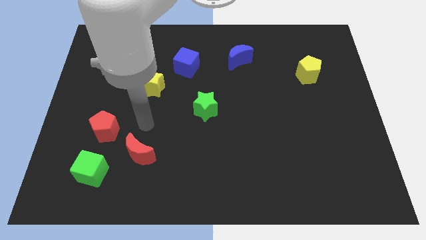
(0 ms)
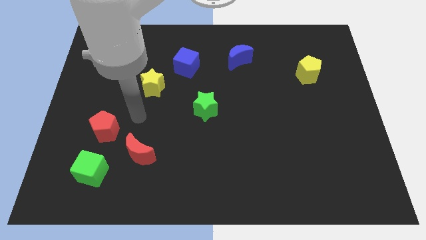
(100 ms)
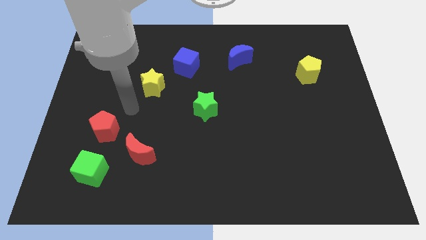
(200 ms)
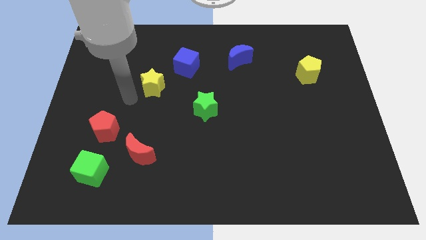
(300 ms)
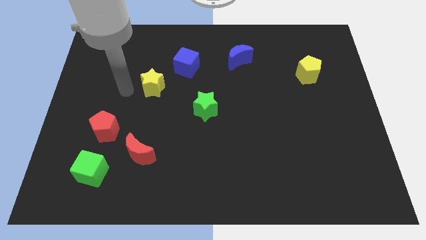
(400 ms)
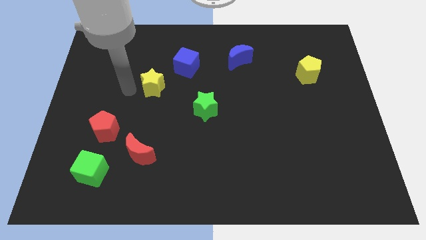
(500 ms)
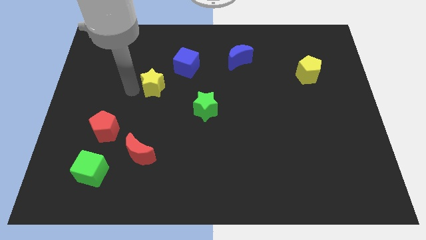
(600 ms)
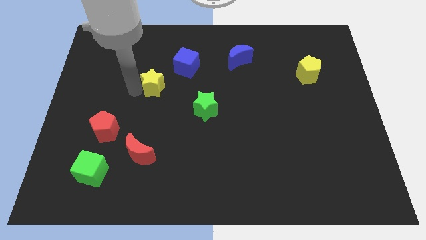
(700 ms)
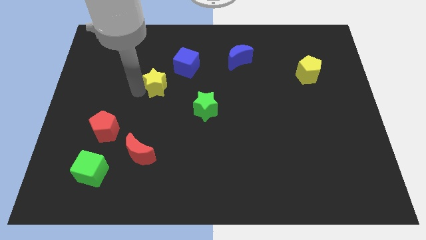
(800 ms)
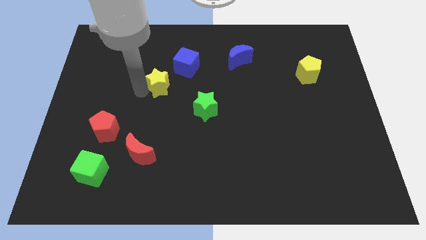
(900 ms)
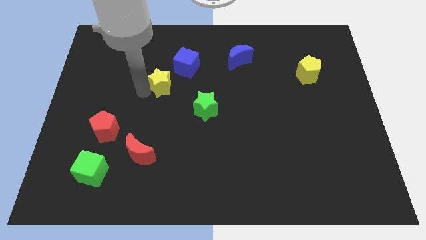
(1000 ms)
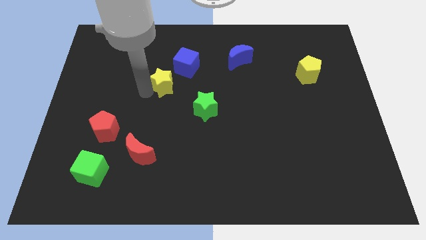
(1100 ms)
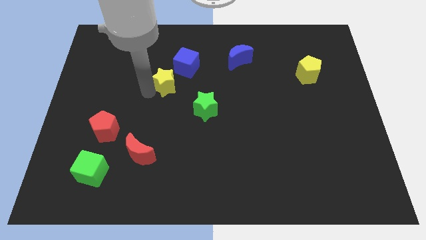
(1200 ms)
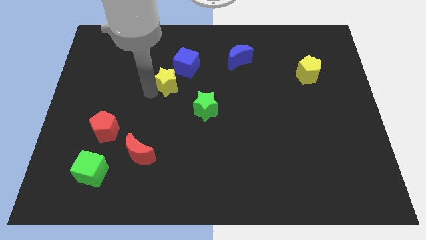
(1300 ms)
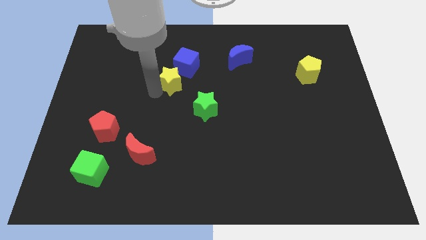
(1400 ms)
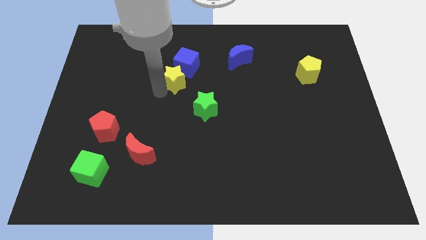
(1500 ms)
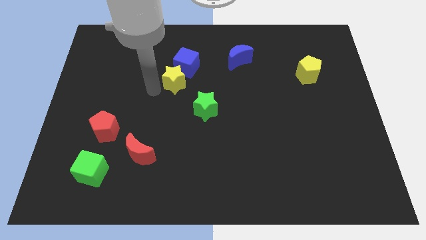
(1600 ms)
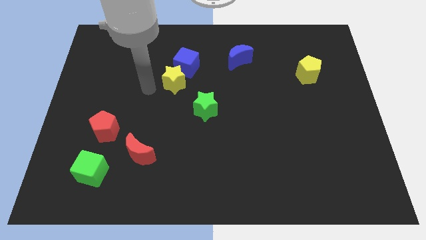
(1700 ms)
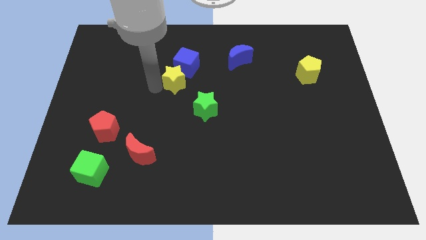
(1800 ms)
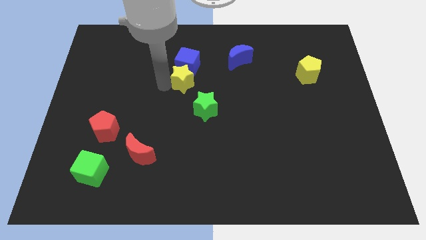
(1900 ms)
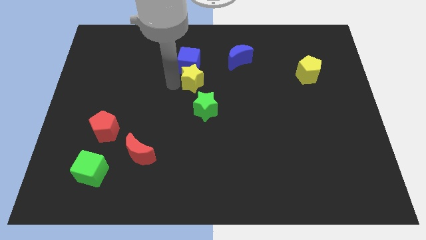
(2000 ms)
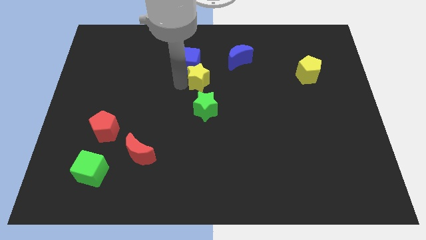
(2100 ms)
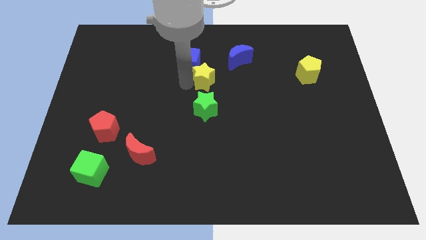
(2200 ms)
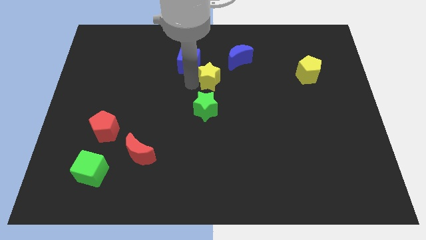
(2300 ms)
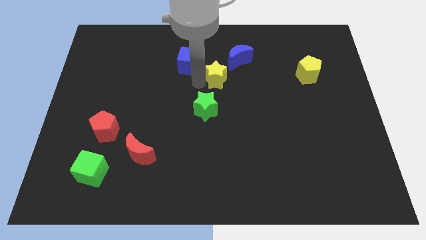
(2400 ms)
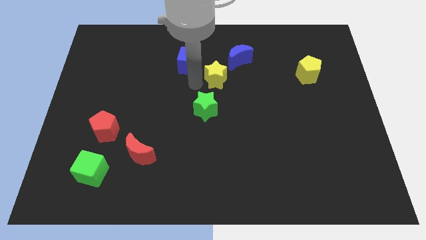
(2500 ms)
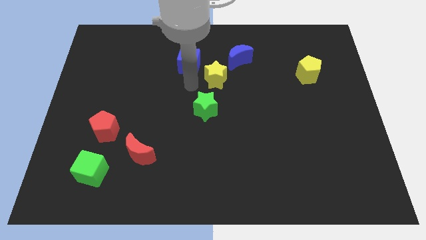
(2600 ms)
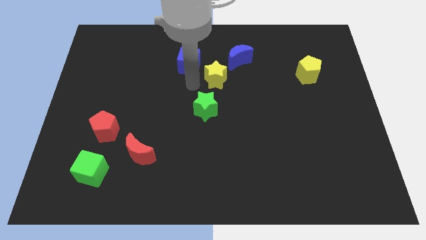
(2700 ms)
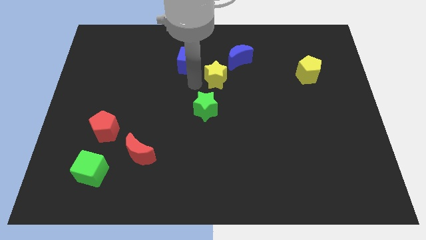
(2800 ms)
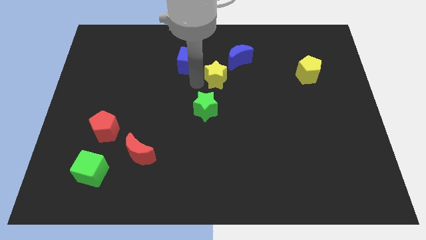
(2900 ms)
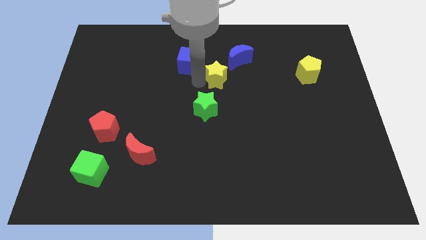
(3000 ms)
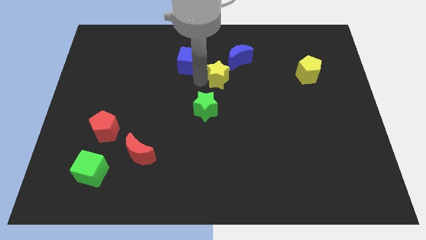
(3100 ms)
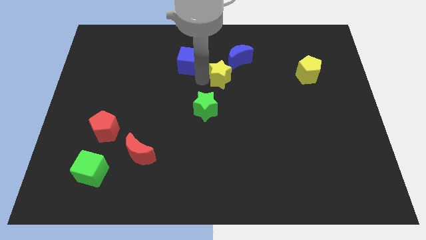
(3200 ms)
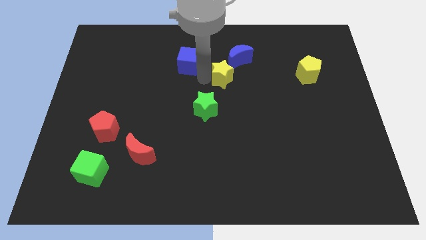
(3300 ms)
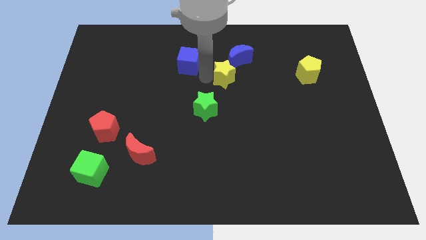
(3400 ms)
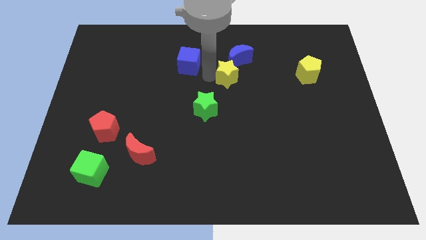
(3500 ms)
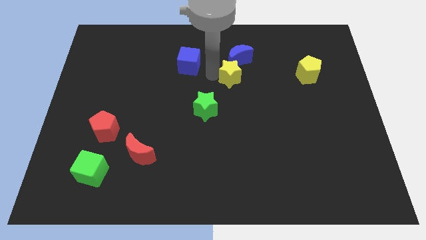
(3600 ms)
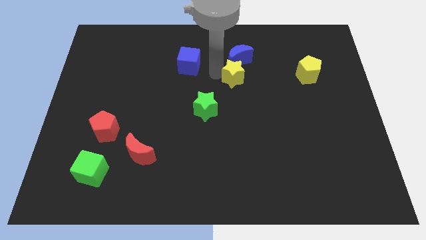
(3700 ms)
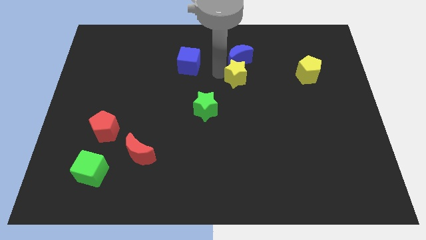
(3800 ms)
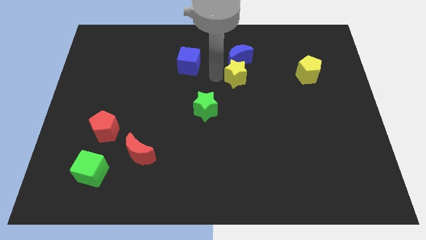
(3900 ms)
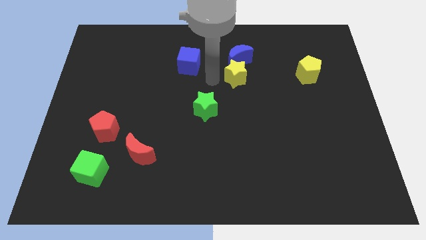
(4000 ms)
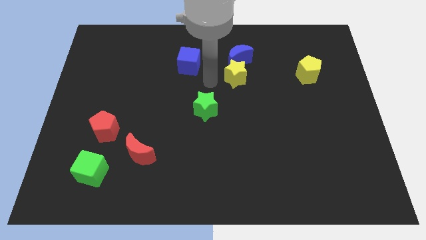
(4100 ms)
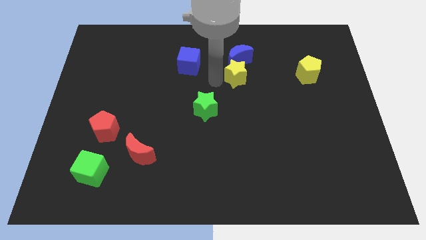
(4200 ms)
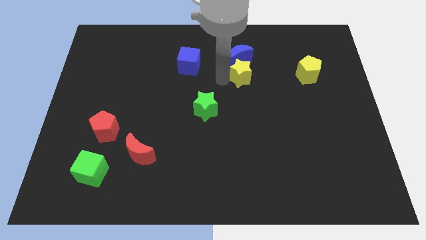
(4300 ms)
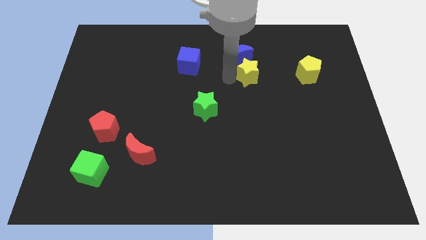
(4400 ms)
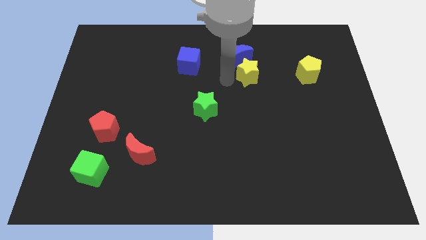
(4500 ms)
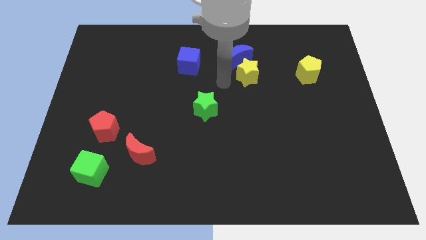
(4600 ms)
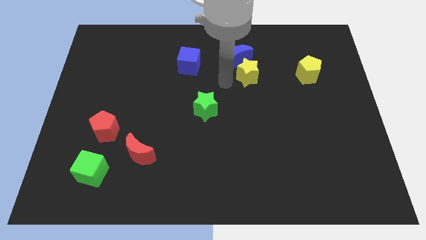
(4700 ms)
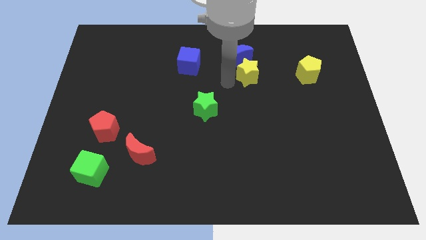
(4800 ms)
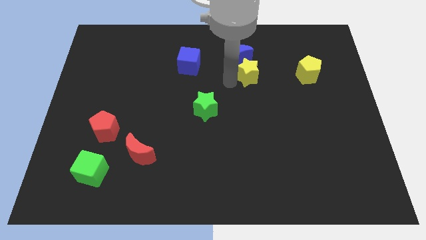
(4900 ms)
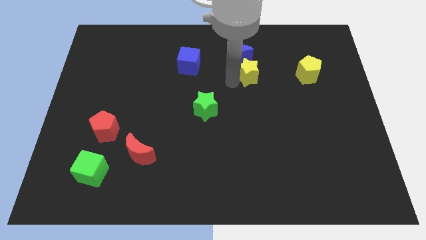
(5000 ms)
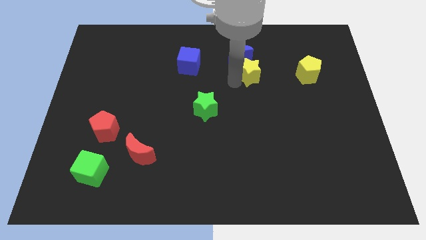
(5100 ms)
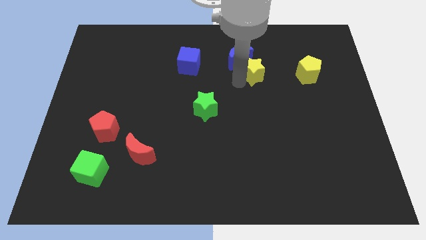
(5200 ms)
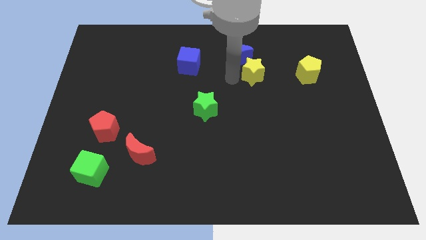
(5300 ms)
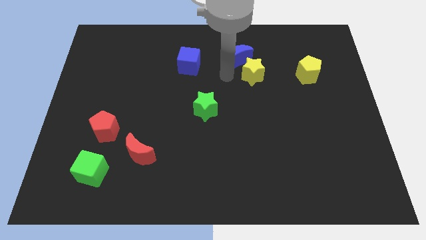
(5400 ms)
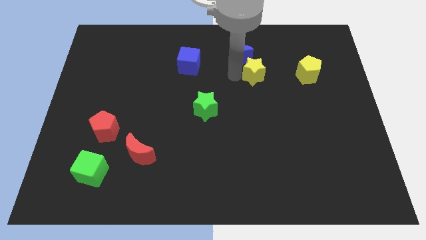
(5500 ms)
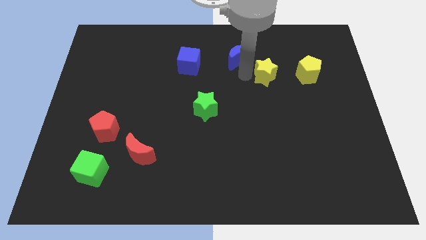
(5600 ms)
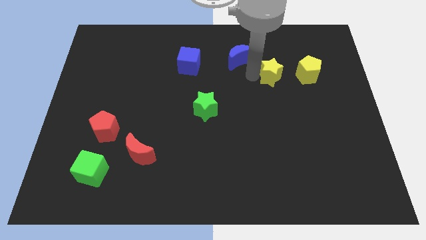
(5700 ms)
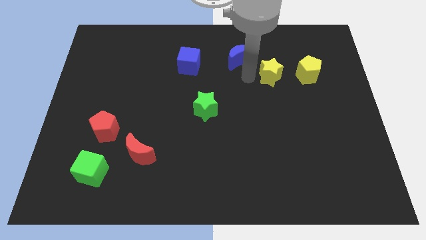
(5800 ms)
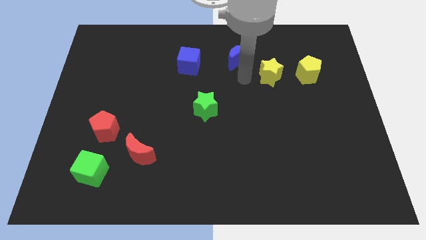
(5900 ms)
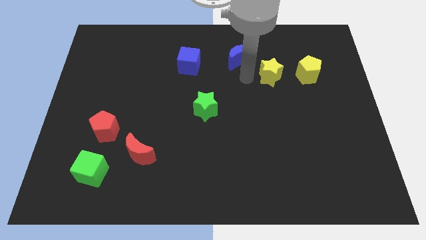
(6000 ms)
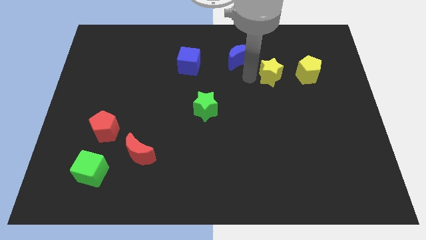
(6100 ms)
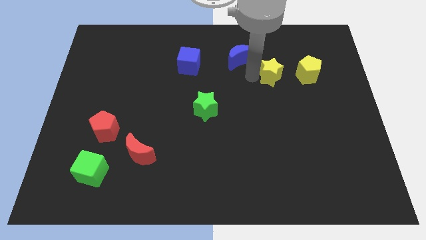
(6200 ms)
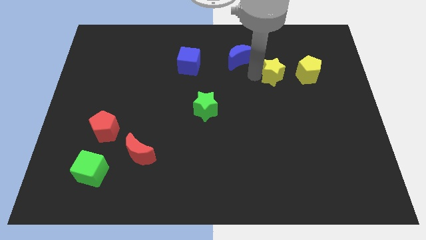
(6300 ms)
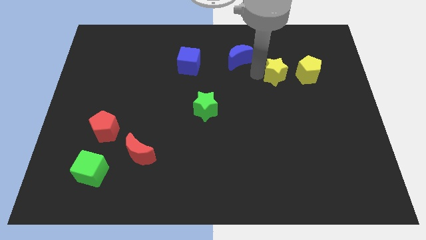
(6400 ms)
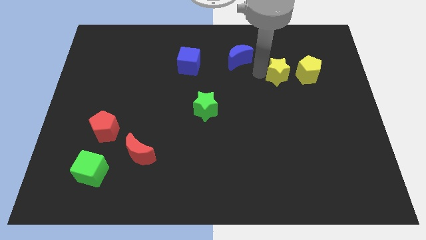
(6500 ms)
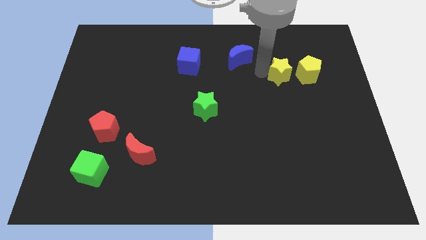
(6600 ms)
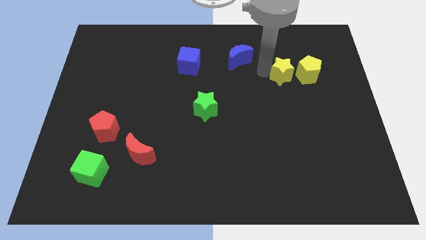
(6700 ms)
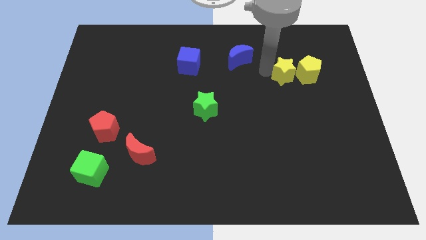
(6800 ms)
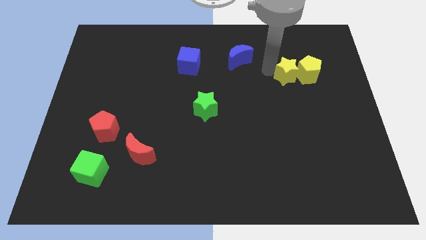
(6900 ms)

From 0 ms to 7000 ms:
push the yellow star close to the yellow pentagon

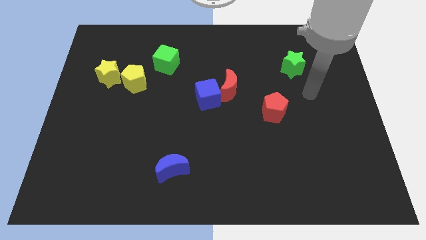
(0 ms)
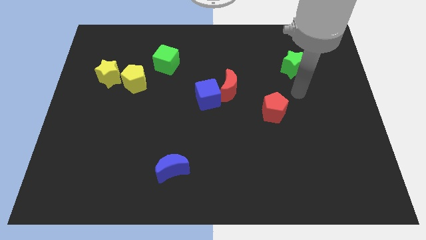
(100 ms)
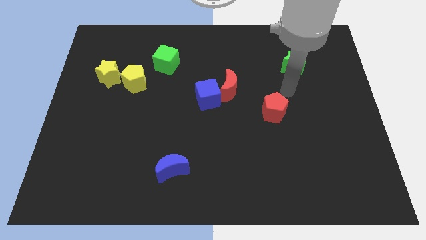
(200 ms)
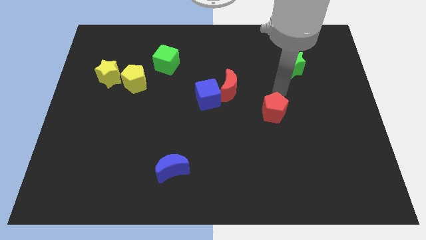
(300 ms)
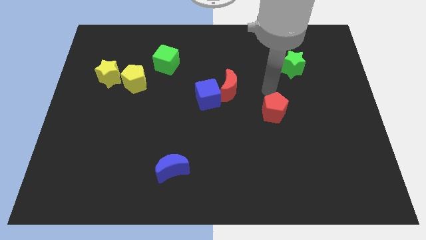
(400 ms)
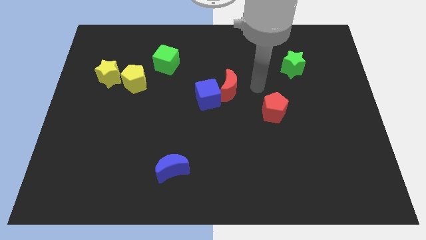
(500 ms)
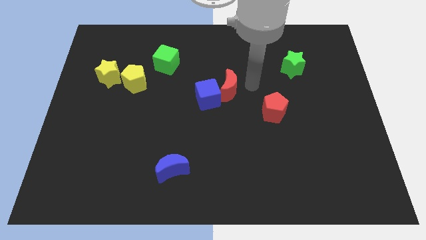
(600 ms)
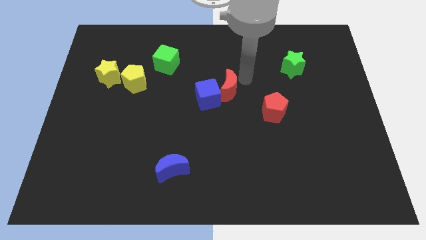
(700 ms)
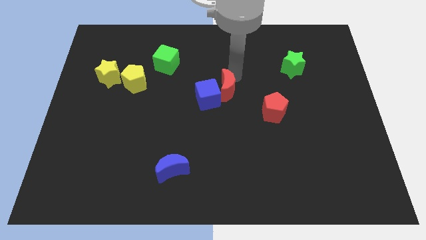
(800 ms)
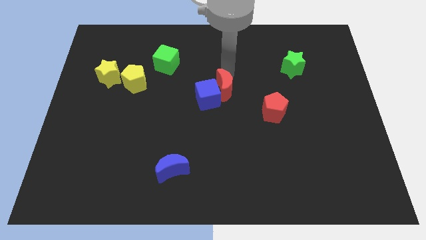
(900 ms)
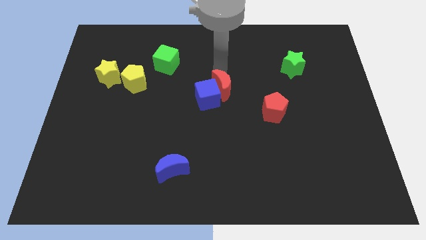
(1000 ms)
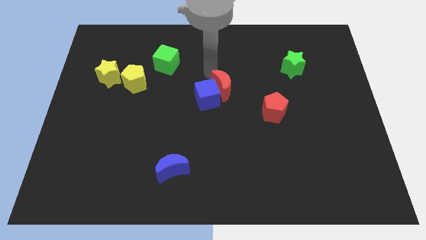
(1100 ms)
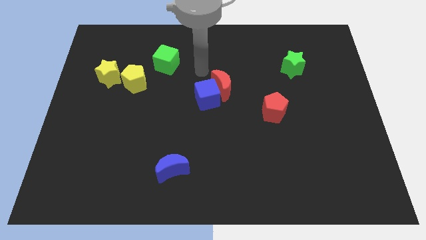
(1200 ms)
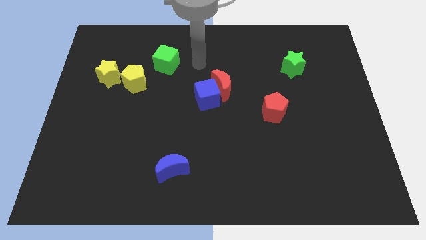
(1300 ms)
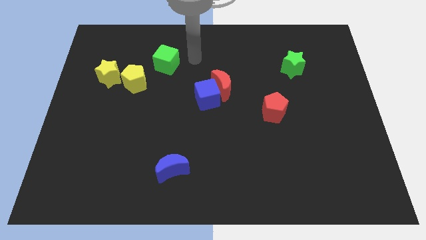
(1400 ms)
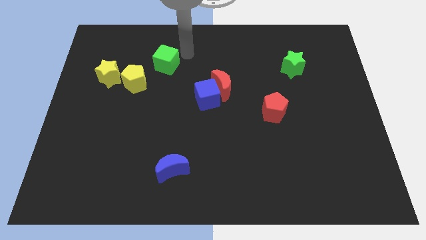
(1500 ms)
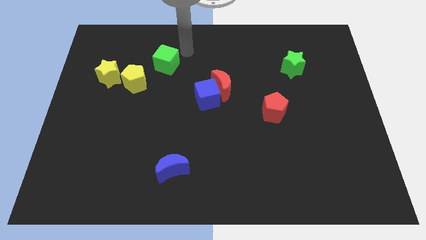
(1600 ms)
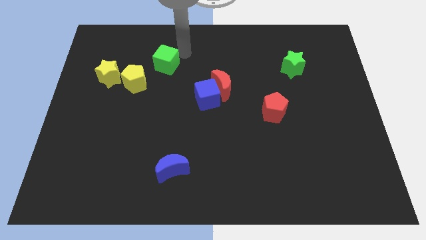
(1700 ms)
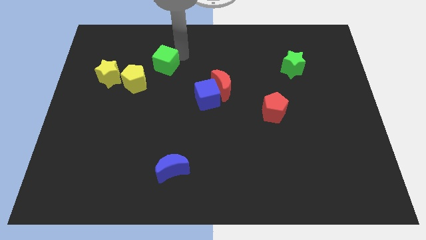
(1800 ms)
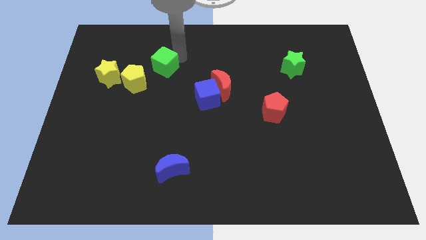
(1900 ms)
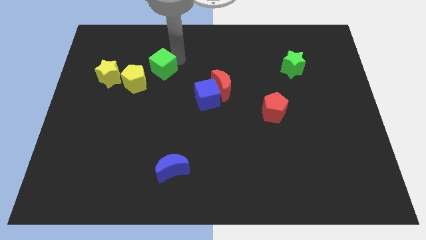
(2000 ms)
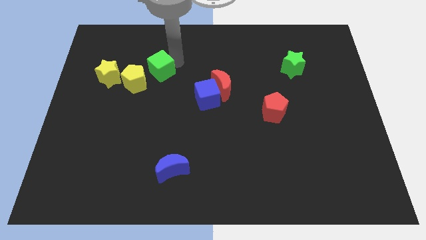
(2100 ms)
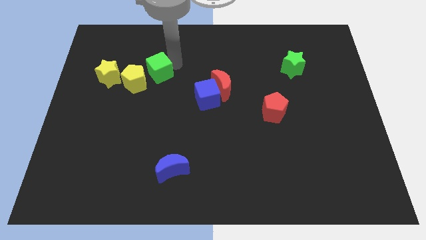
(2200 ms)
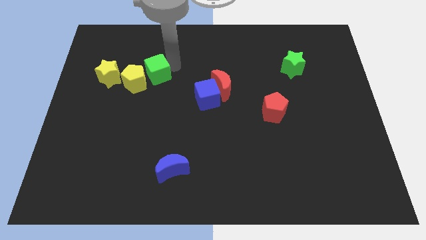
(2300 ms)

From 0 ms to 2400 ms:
put the green cube to the yellow pentagon
